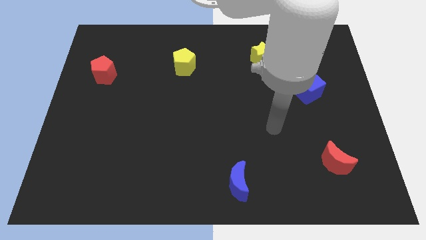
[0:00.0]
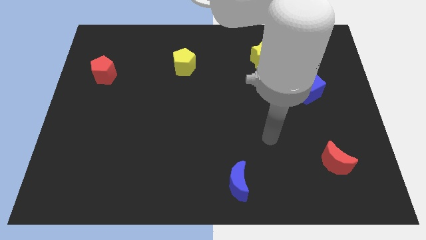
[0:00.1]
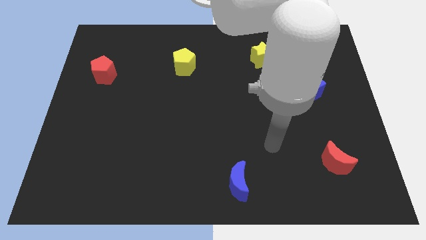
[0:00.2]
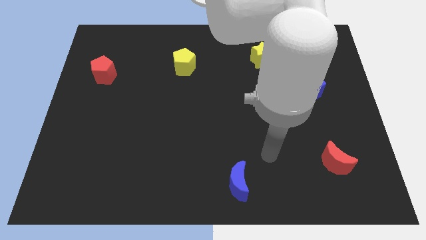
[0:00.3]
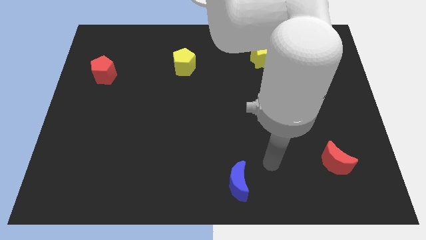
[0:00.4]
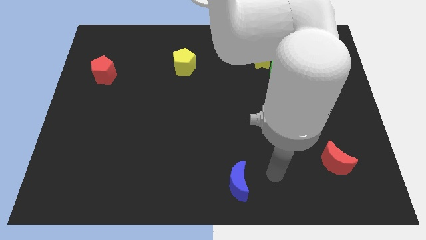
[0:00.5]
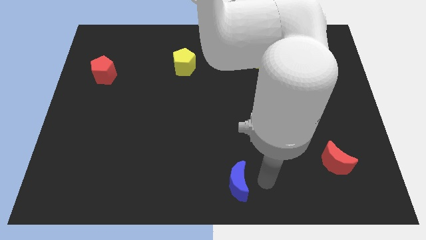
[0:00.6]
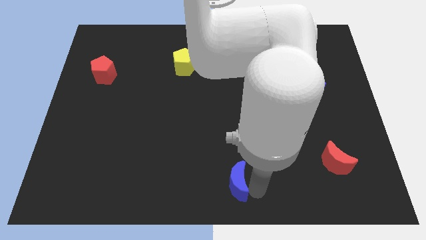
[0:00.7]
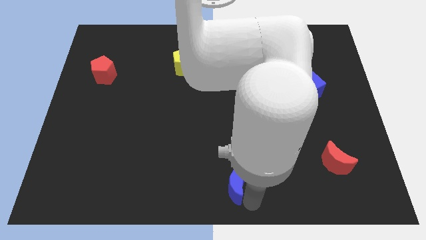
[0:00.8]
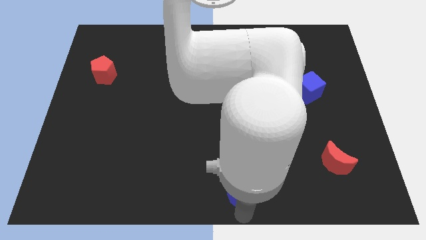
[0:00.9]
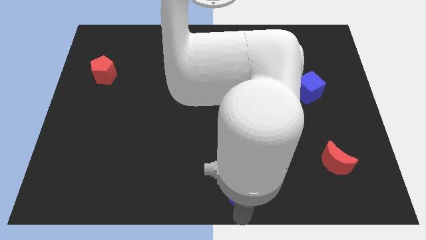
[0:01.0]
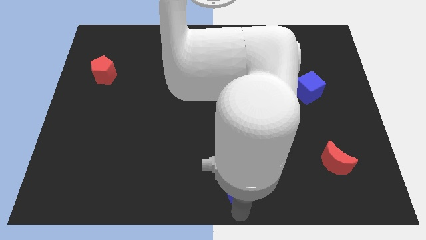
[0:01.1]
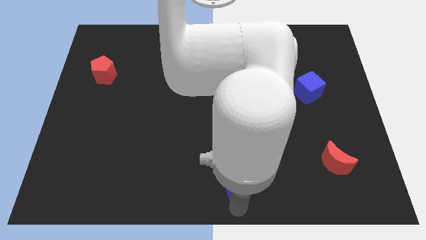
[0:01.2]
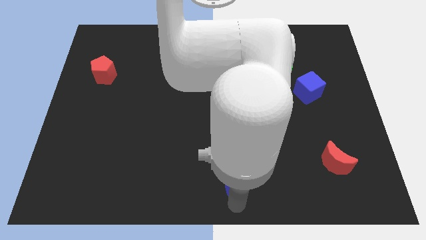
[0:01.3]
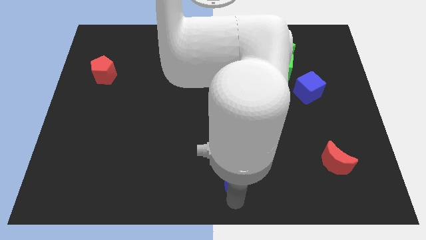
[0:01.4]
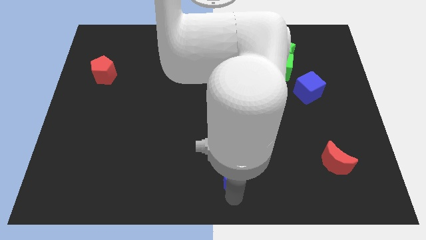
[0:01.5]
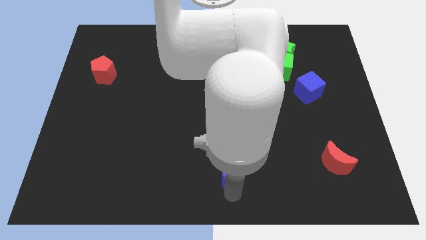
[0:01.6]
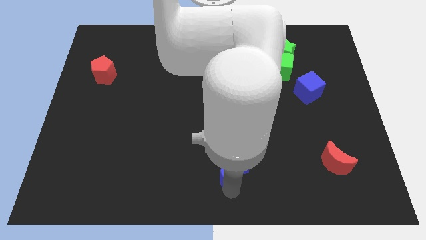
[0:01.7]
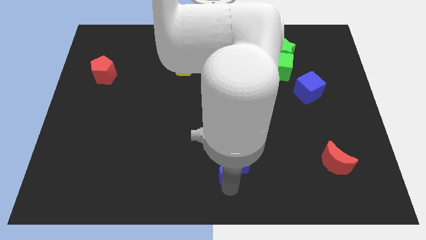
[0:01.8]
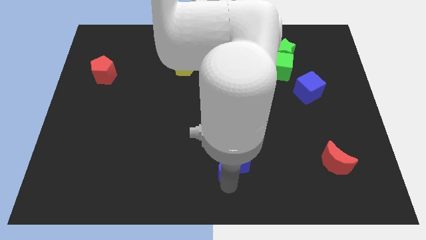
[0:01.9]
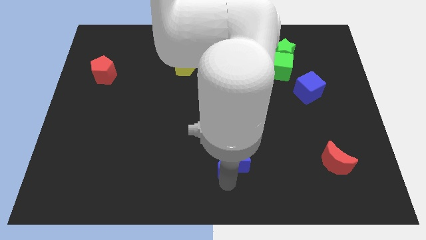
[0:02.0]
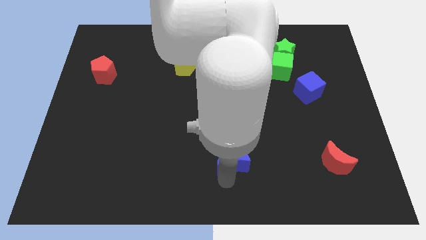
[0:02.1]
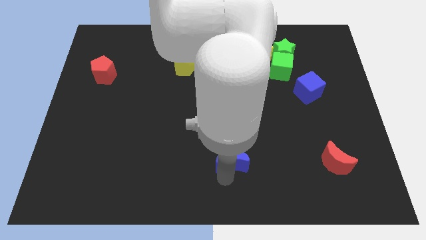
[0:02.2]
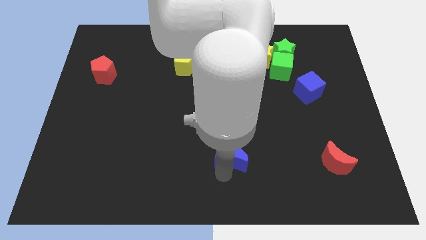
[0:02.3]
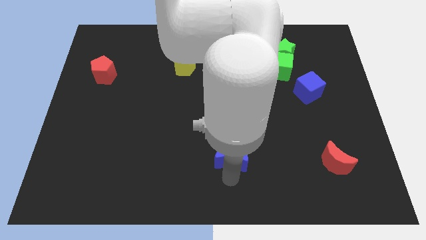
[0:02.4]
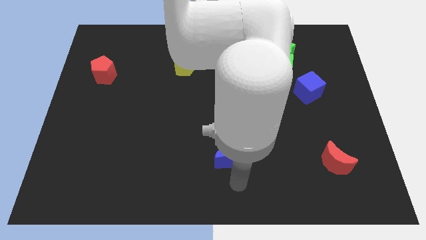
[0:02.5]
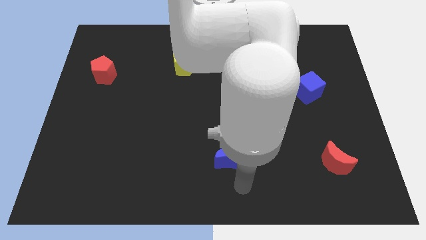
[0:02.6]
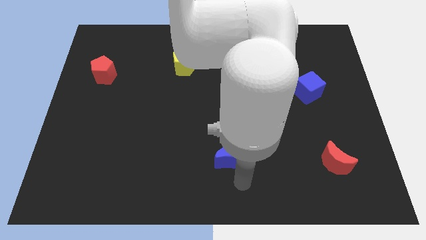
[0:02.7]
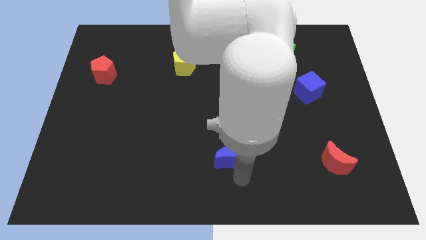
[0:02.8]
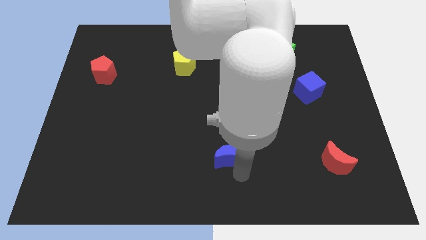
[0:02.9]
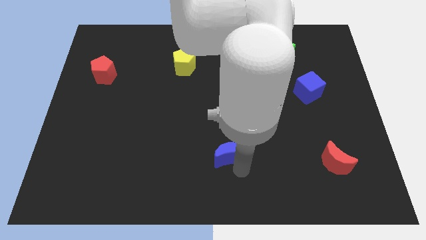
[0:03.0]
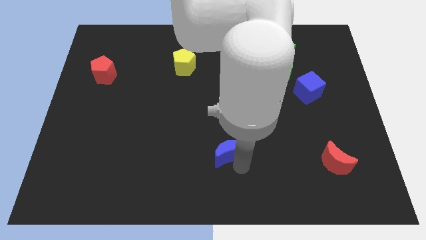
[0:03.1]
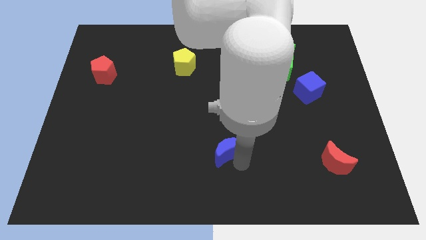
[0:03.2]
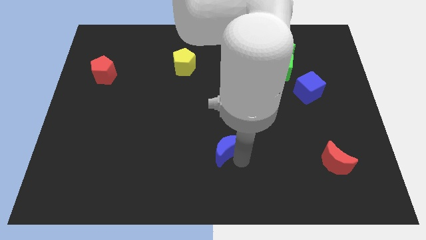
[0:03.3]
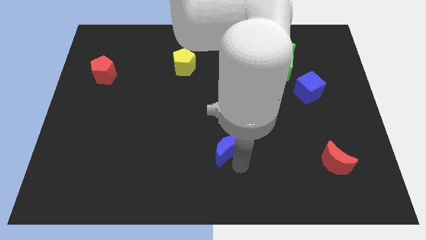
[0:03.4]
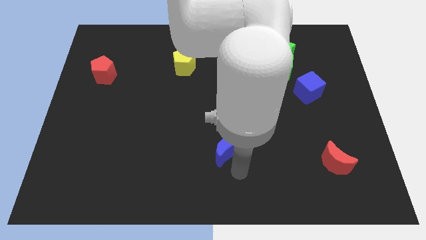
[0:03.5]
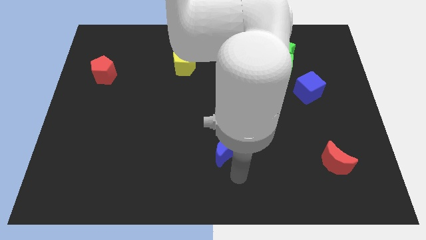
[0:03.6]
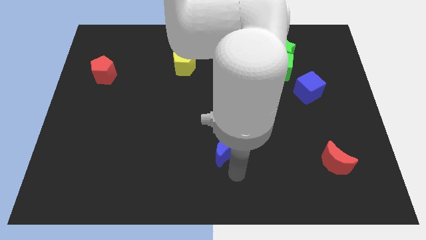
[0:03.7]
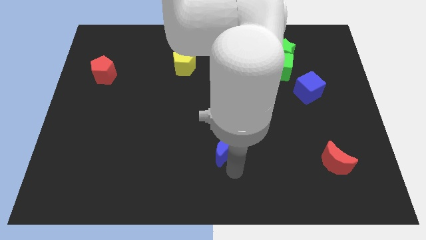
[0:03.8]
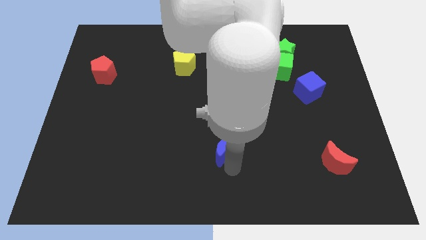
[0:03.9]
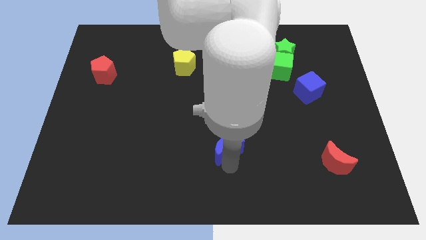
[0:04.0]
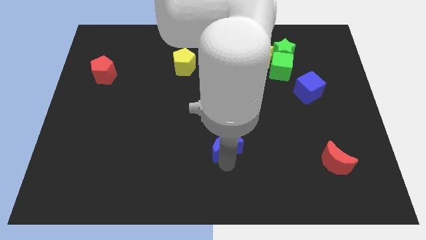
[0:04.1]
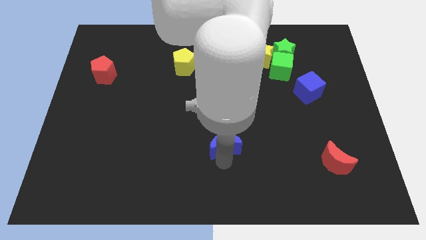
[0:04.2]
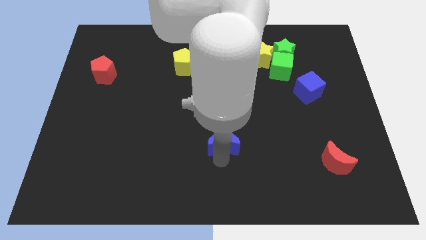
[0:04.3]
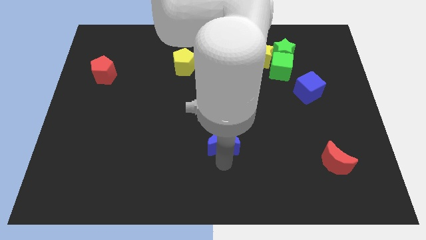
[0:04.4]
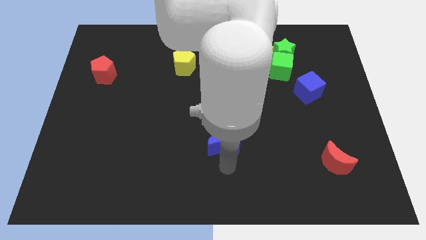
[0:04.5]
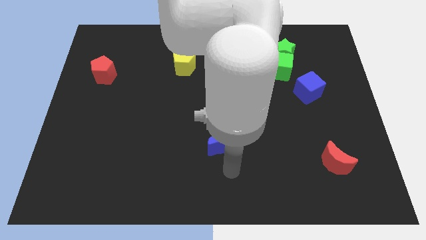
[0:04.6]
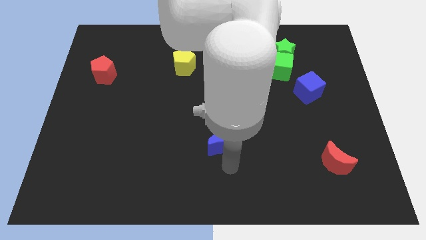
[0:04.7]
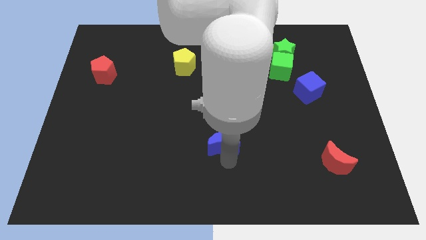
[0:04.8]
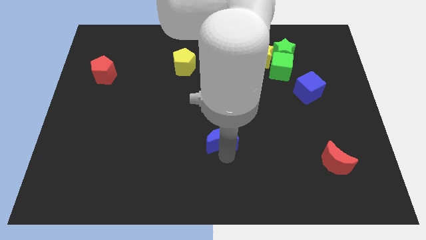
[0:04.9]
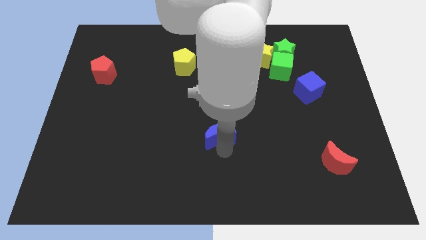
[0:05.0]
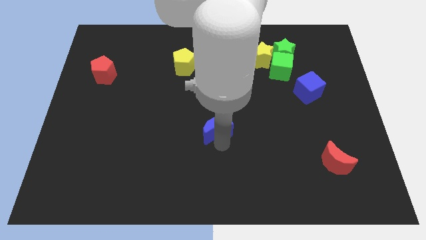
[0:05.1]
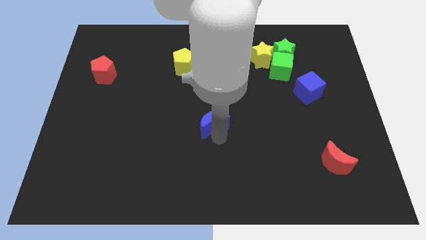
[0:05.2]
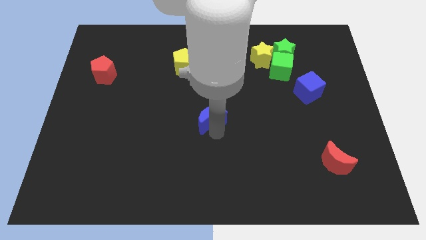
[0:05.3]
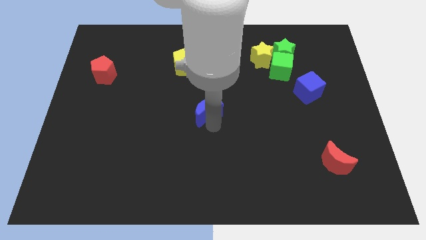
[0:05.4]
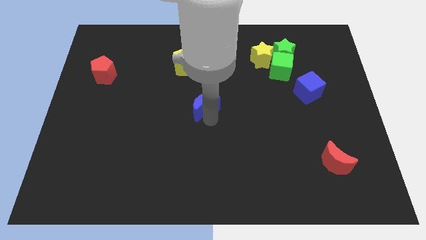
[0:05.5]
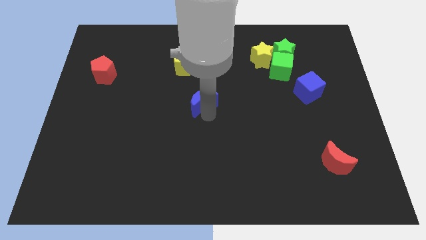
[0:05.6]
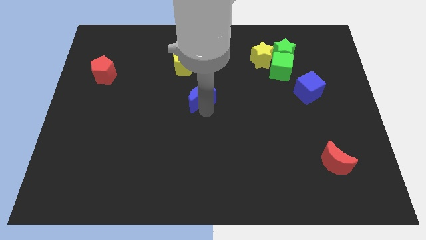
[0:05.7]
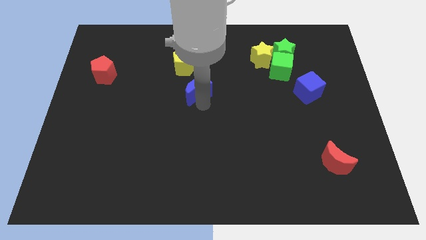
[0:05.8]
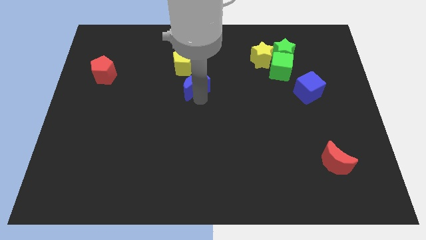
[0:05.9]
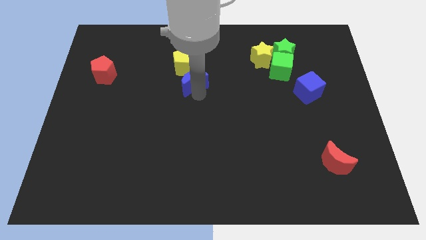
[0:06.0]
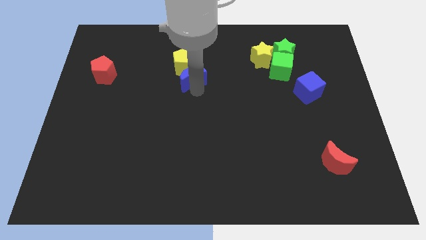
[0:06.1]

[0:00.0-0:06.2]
move the blue moon next to the yellow pentagon

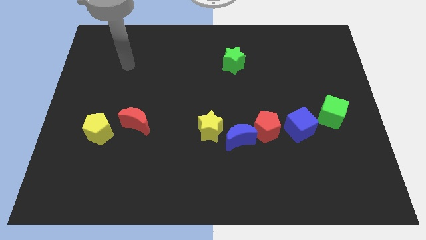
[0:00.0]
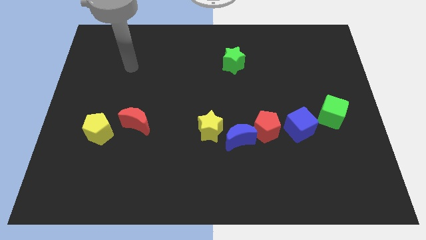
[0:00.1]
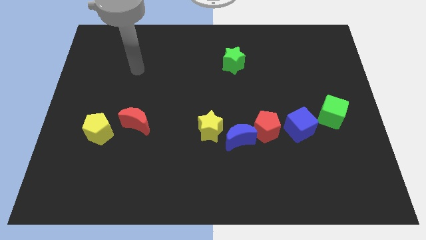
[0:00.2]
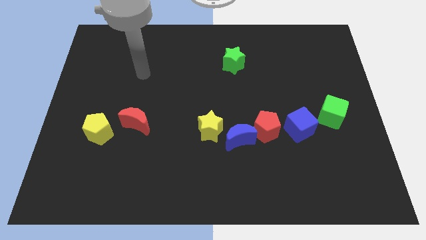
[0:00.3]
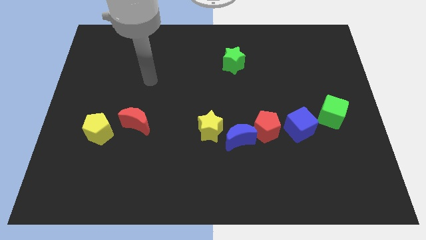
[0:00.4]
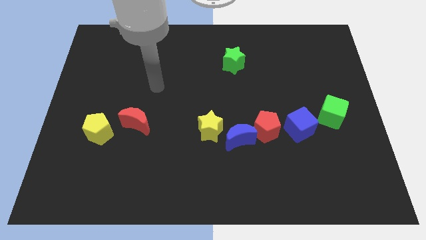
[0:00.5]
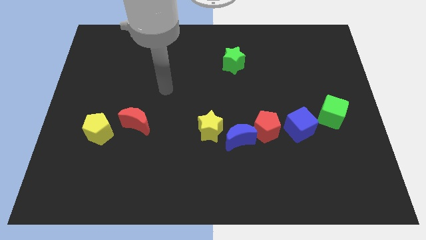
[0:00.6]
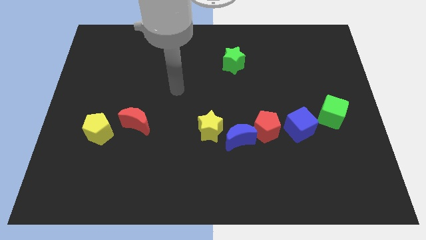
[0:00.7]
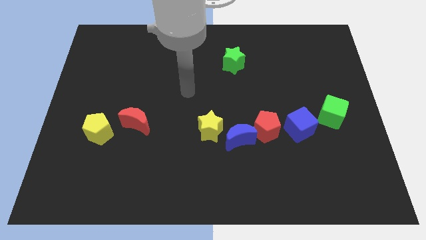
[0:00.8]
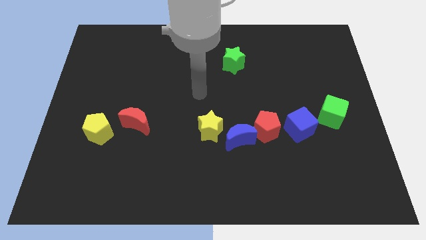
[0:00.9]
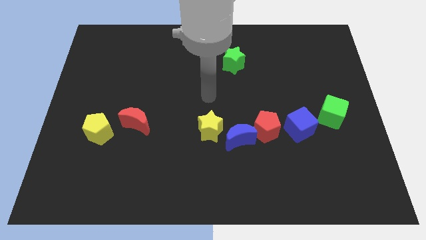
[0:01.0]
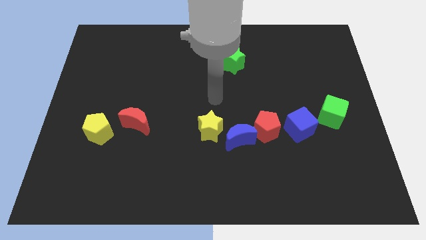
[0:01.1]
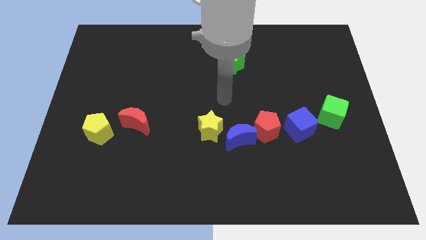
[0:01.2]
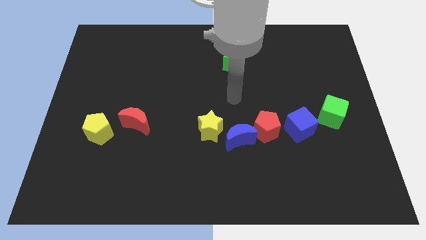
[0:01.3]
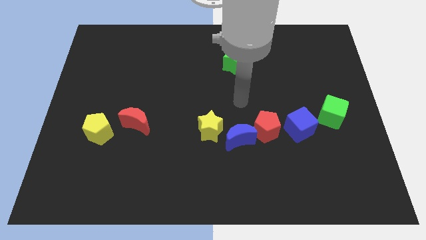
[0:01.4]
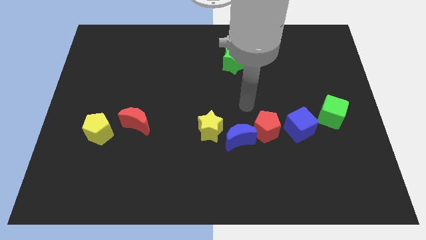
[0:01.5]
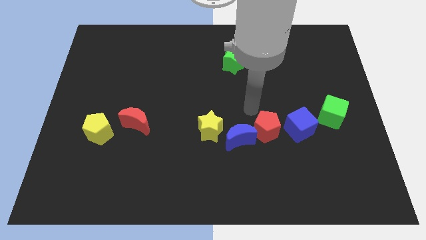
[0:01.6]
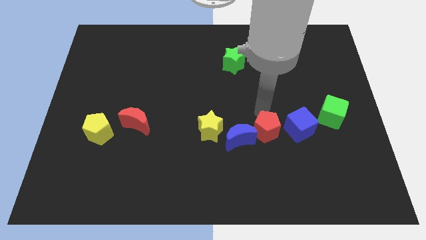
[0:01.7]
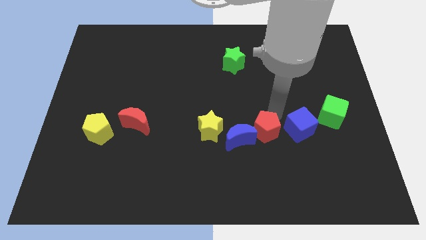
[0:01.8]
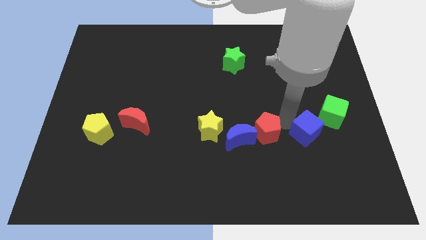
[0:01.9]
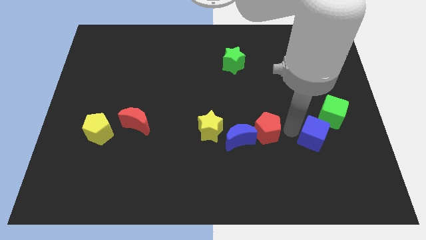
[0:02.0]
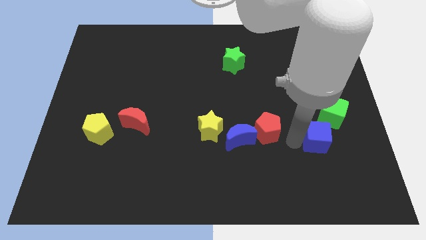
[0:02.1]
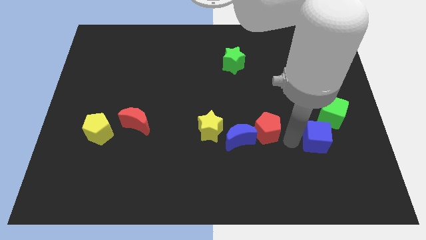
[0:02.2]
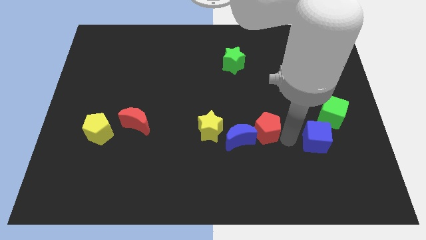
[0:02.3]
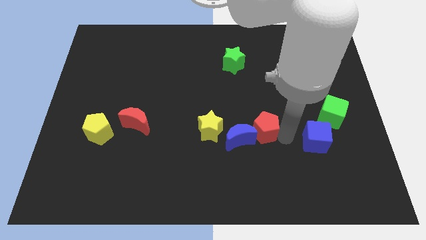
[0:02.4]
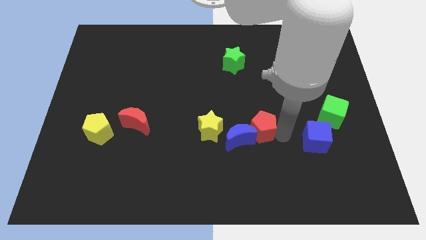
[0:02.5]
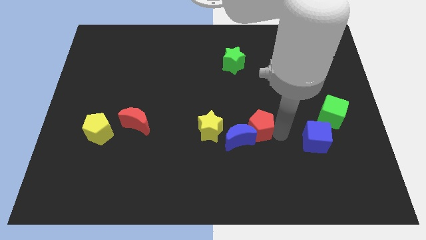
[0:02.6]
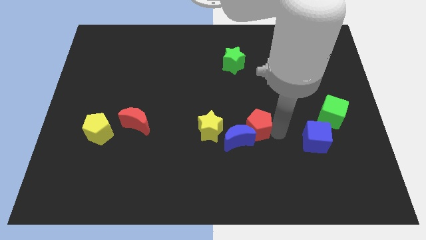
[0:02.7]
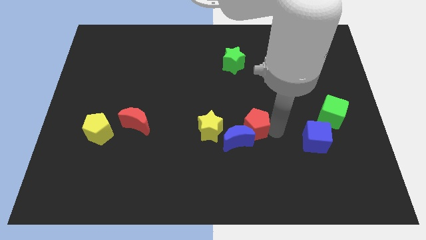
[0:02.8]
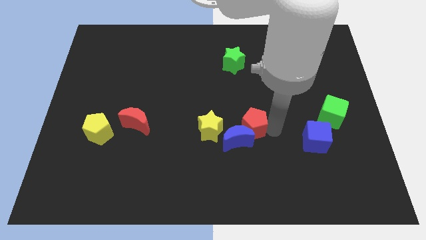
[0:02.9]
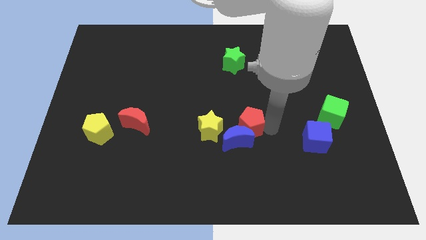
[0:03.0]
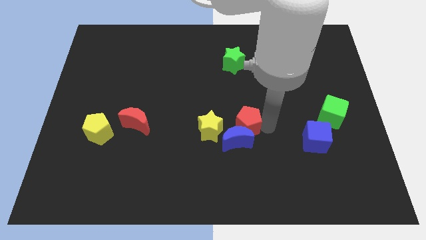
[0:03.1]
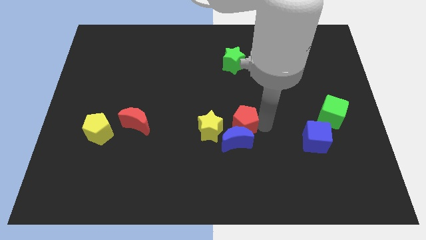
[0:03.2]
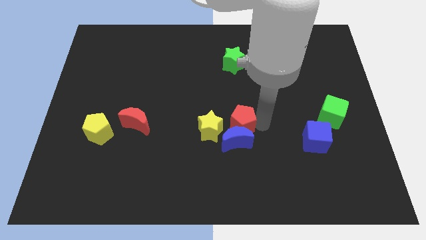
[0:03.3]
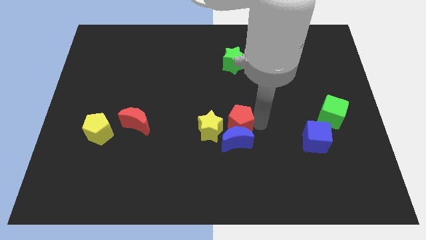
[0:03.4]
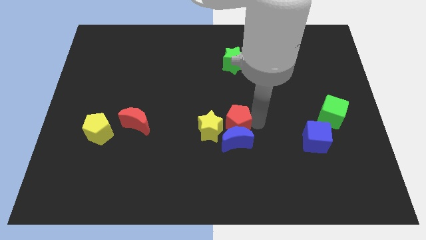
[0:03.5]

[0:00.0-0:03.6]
put the red pentagon close to the yellow star
